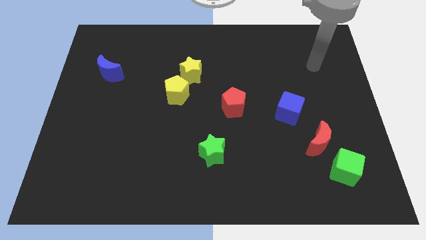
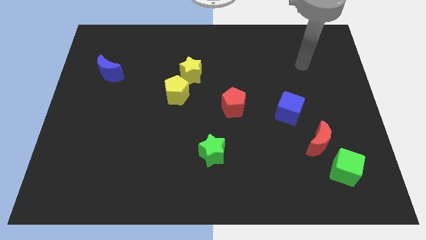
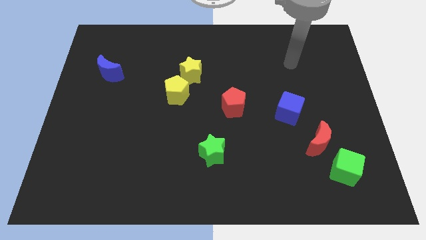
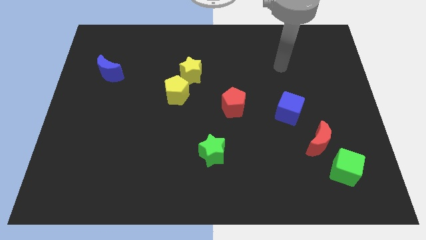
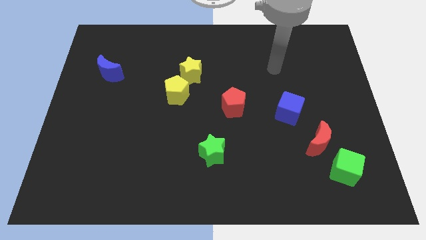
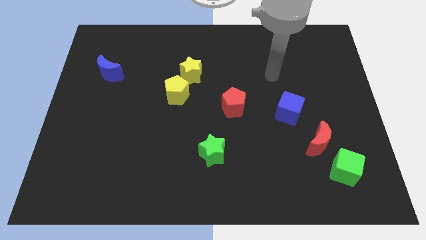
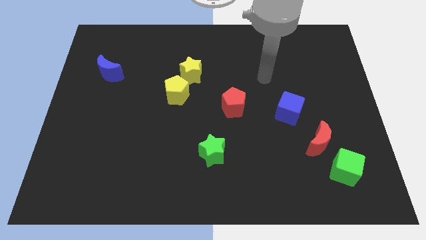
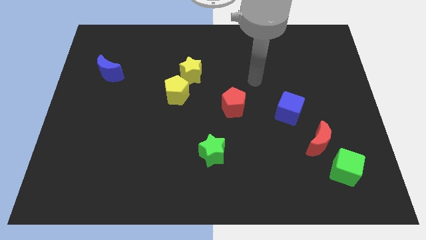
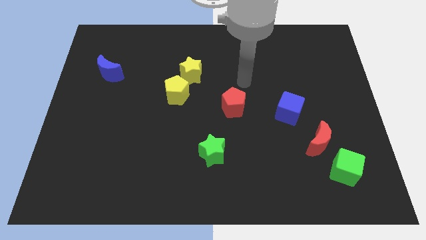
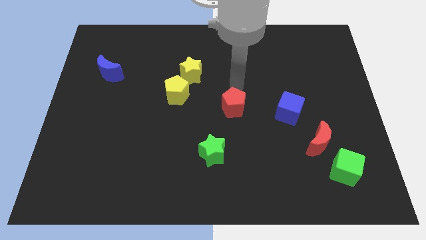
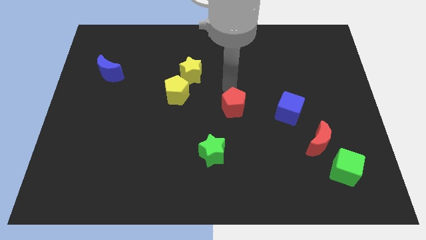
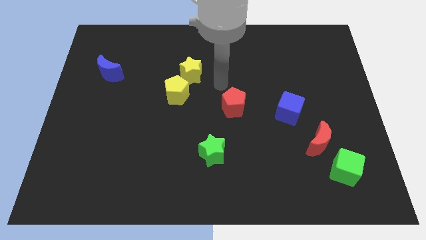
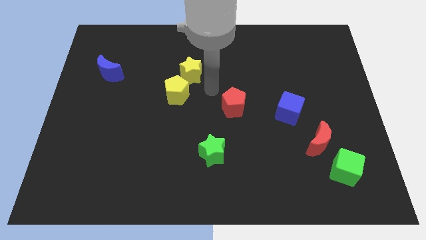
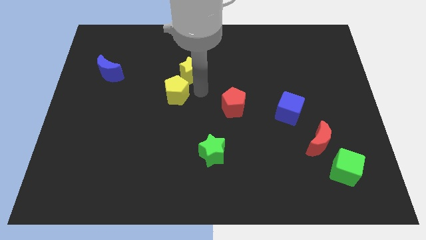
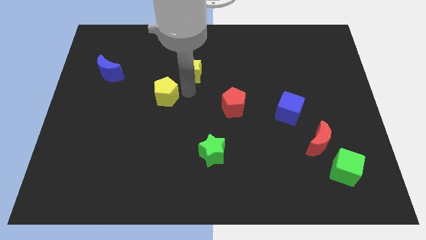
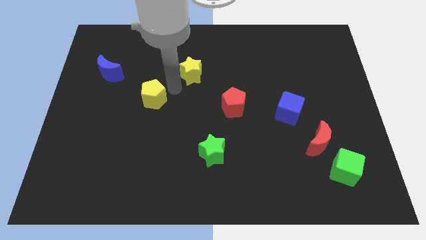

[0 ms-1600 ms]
pull the yellow star apart from the yellow pentagon

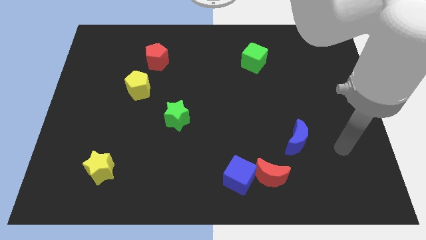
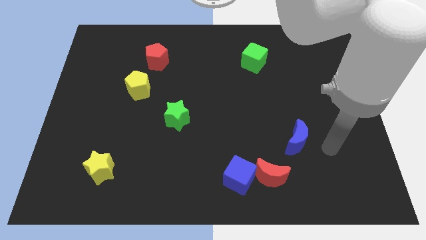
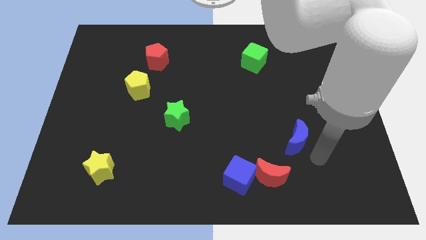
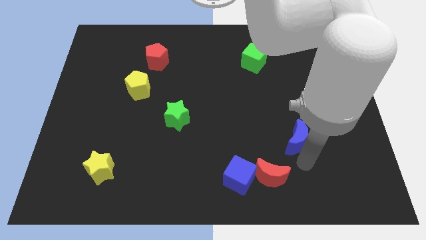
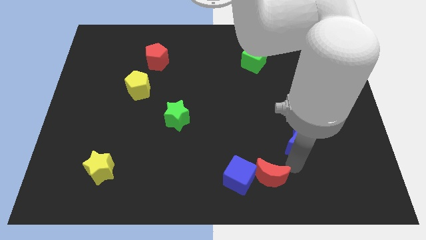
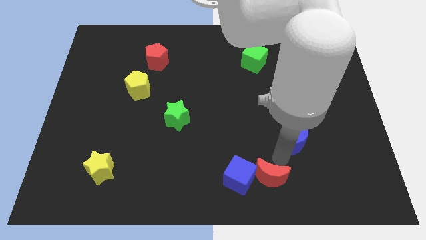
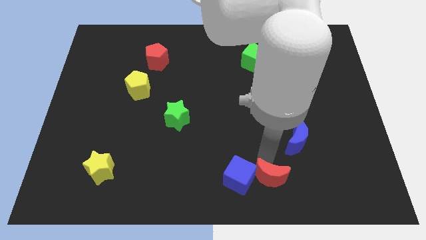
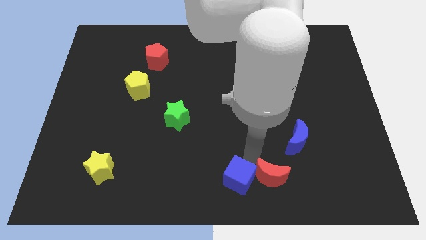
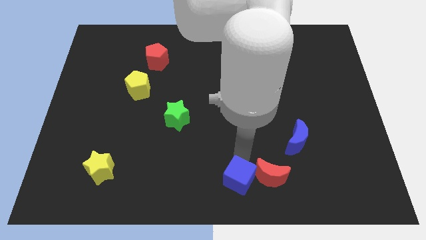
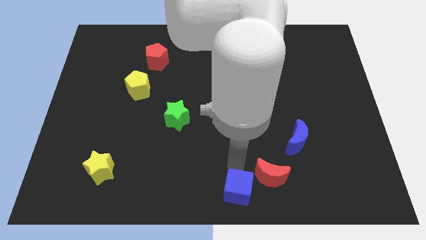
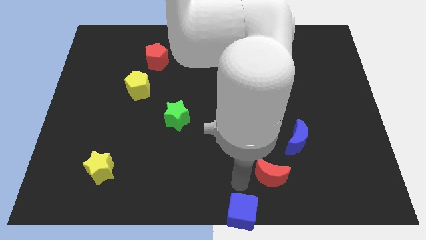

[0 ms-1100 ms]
separate the red moon from the blue cube

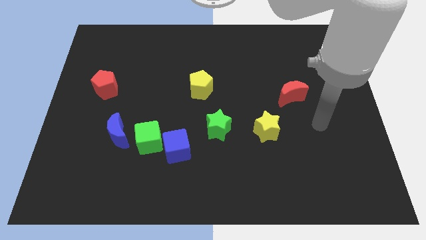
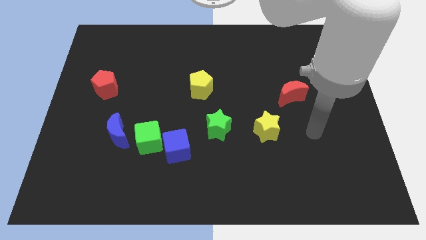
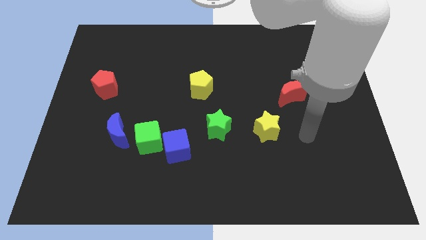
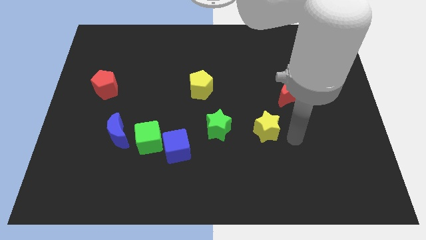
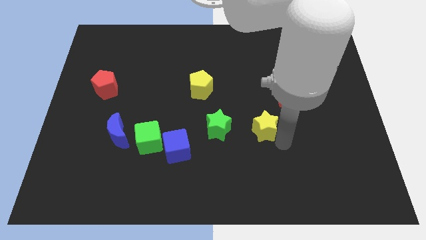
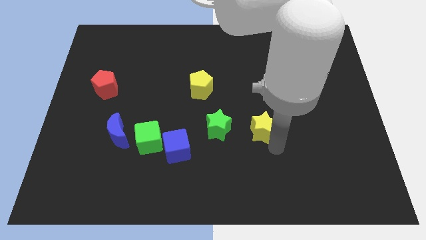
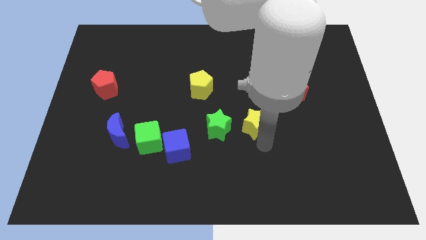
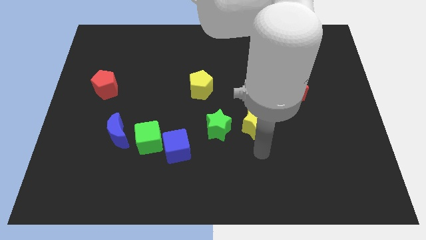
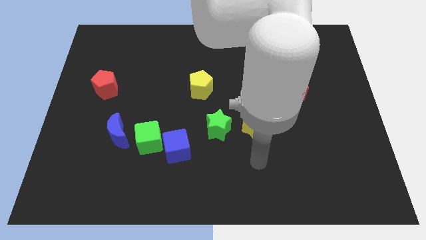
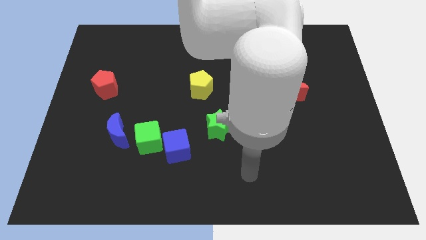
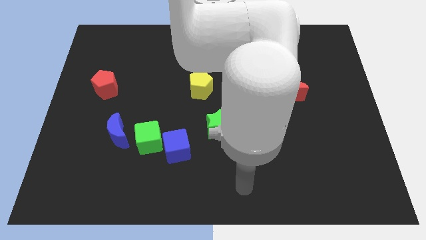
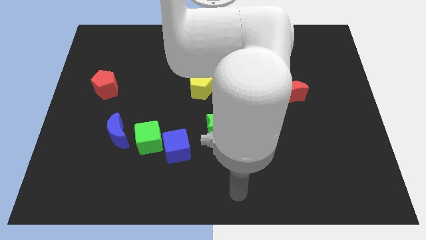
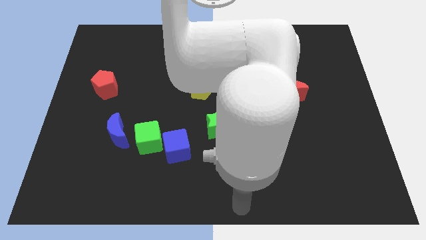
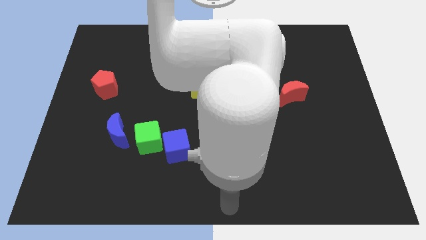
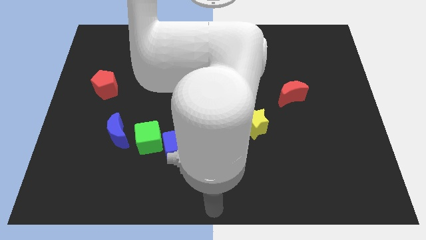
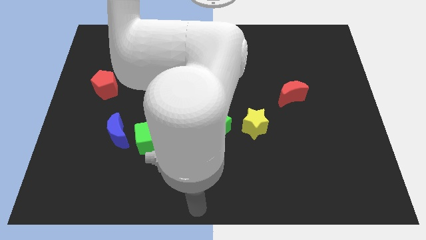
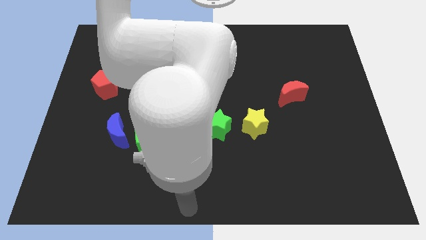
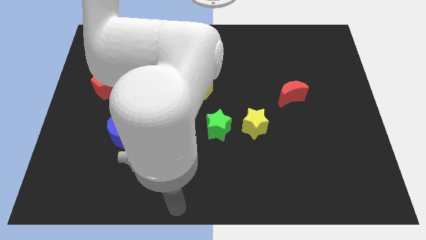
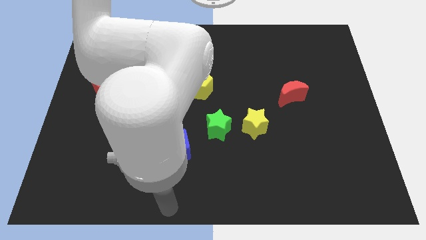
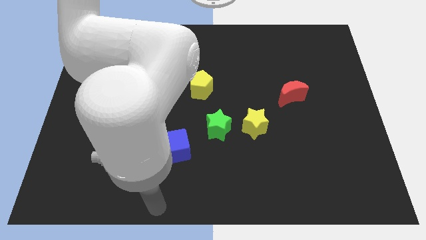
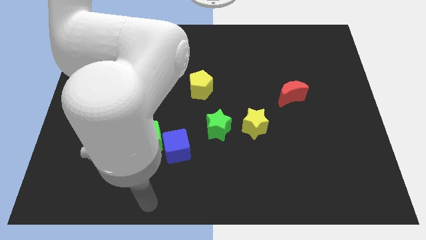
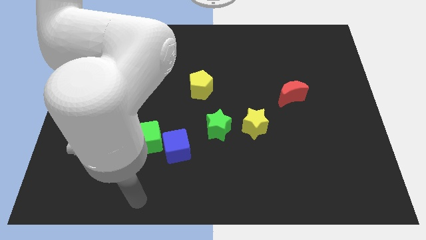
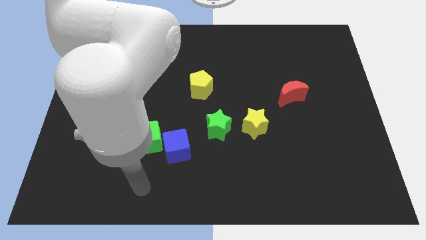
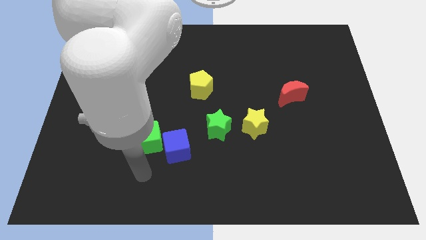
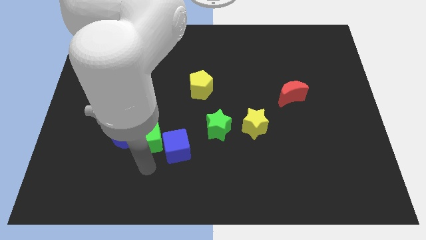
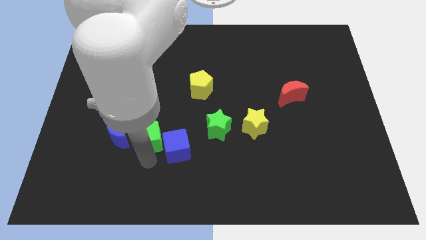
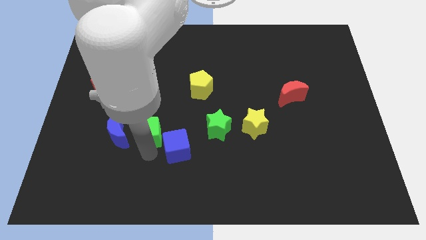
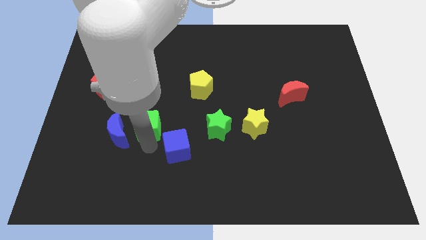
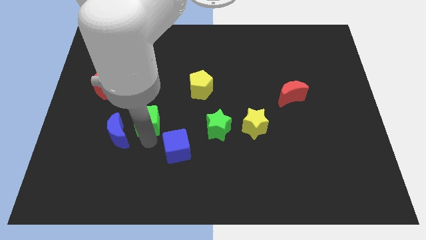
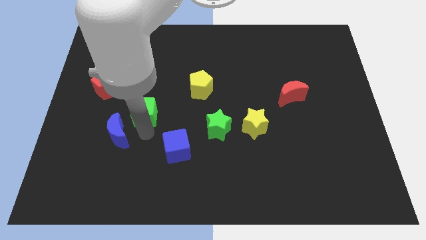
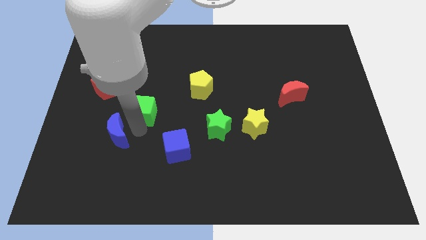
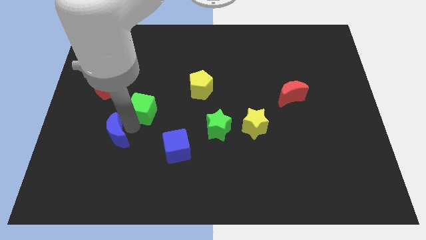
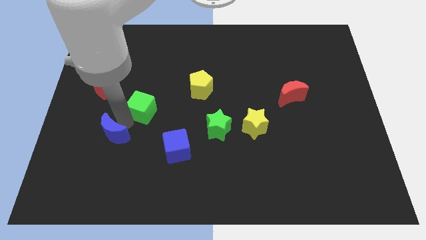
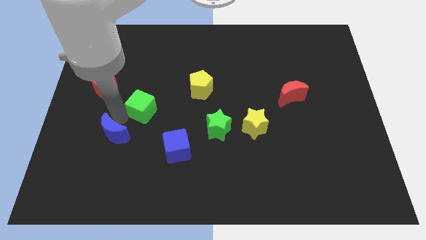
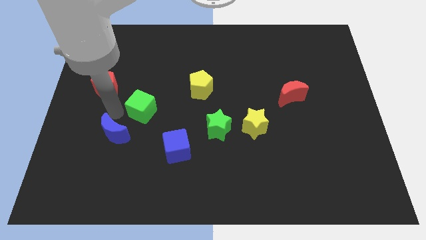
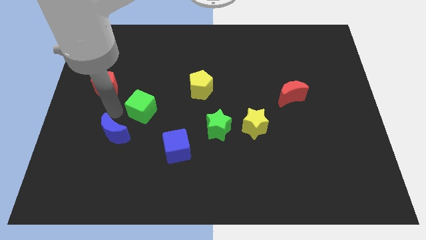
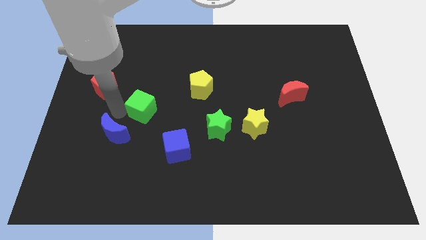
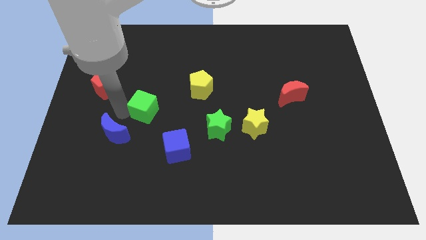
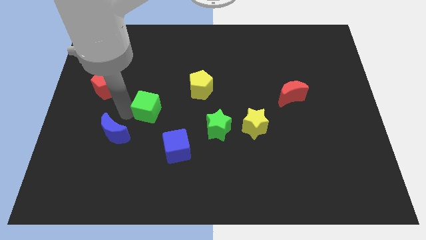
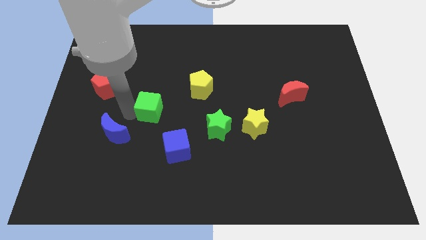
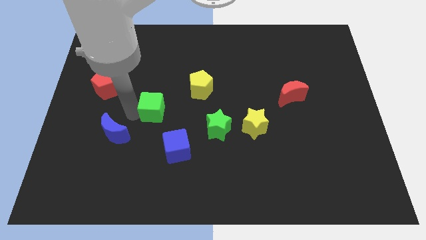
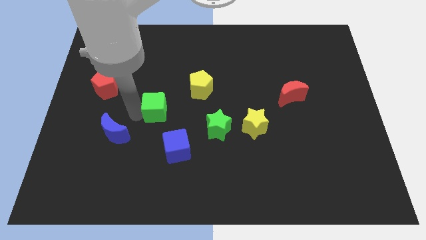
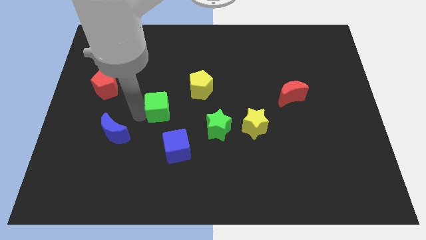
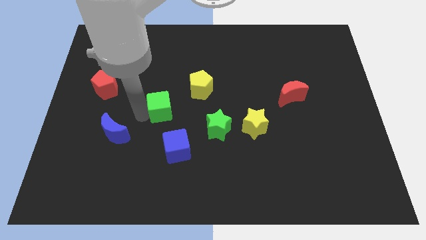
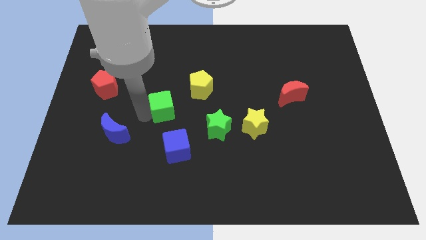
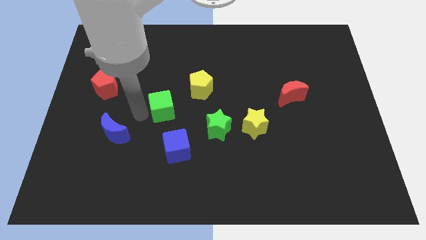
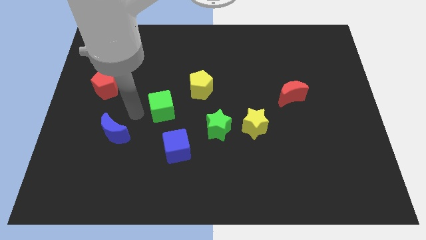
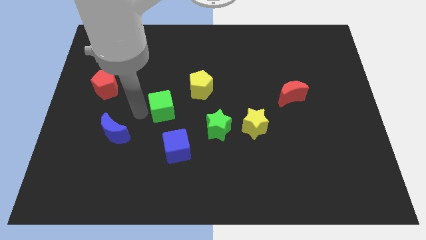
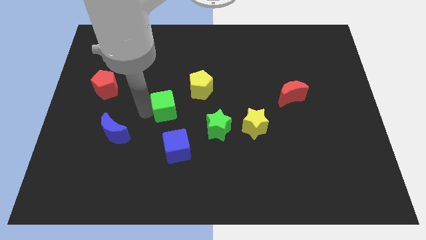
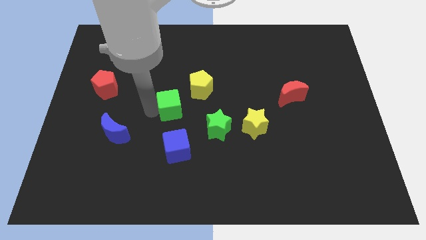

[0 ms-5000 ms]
move the green cube away from the blue cube and blue moon

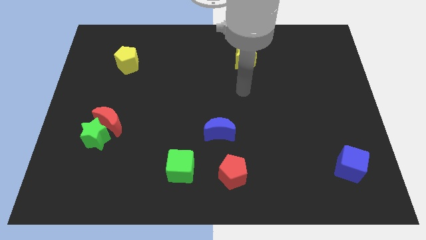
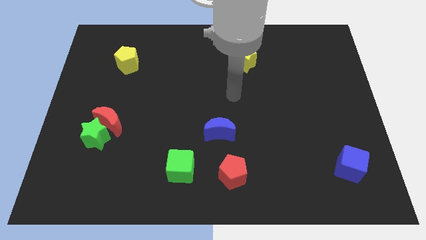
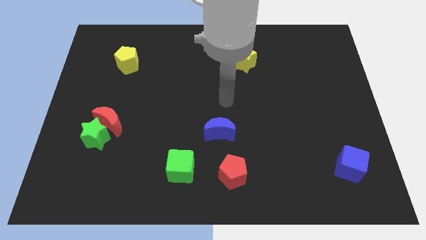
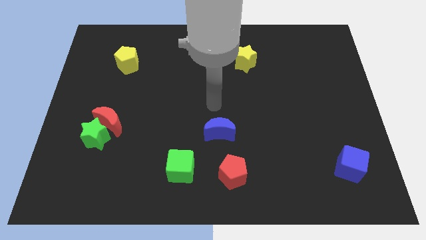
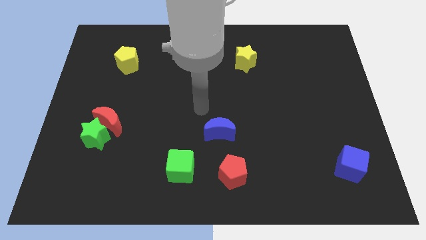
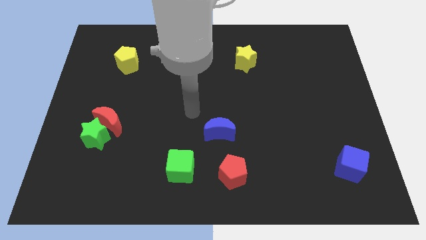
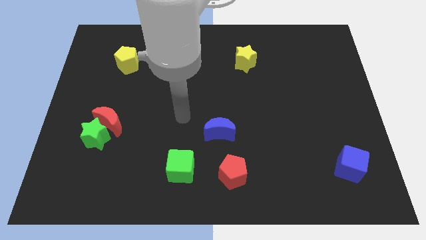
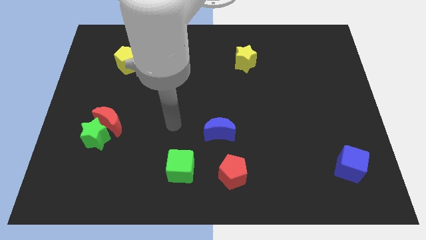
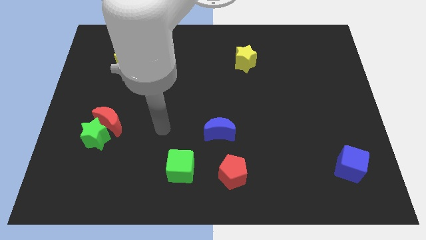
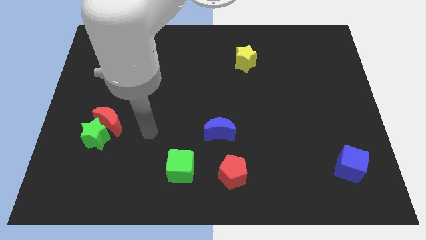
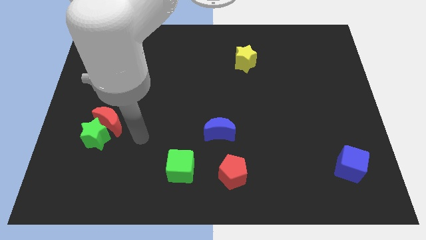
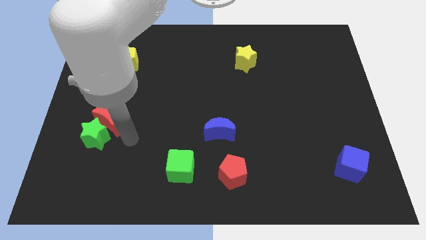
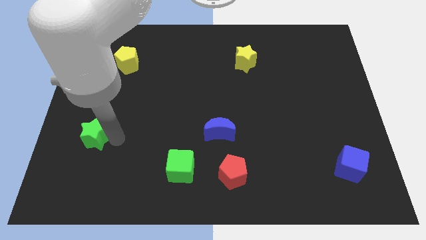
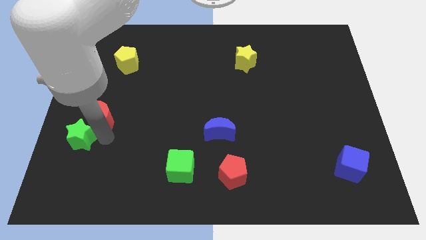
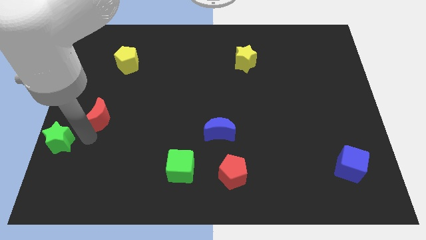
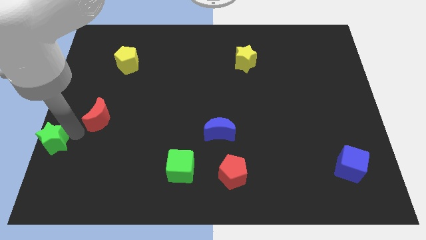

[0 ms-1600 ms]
move the red moon away from the green star

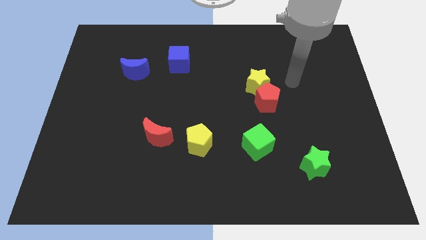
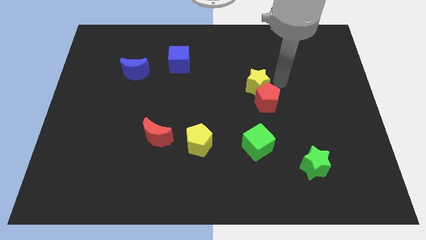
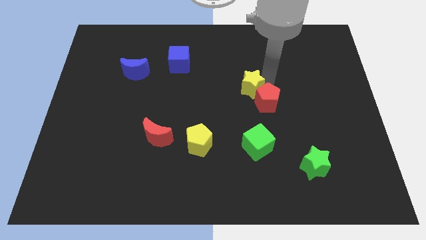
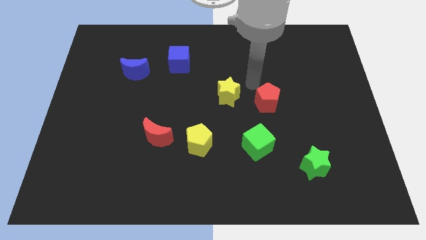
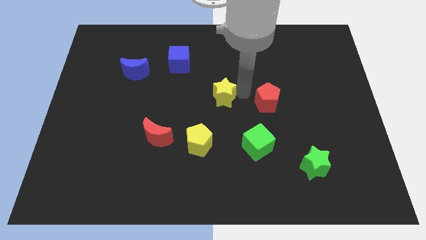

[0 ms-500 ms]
separate the red pentagon from the yellow star
